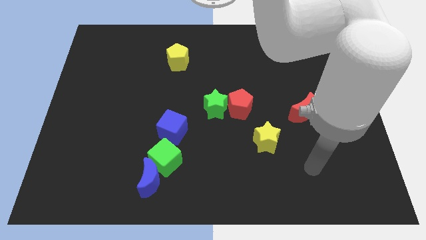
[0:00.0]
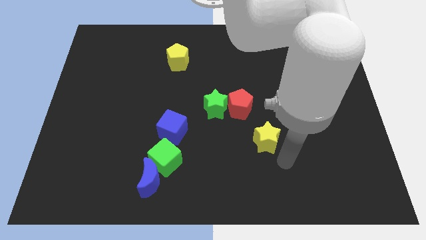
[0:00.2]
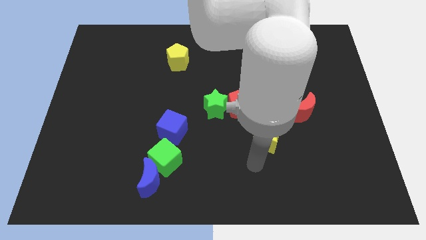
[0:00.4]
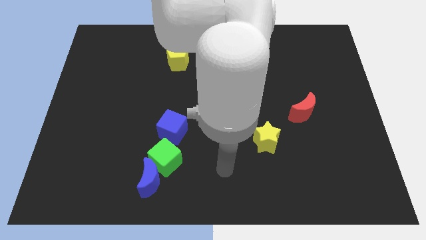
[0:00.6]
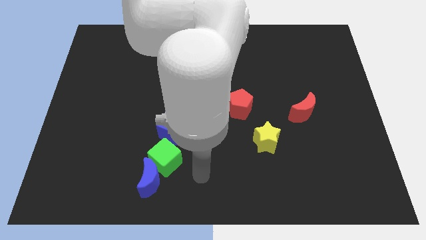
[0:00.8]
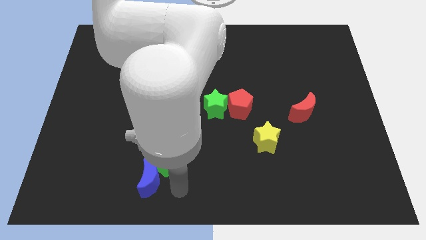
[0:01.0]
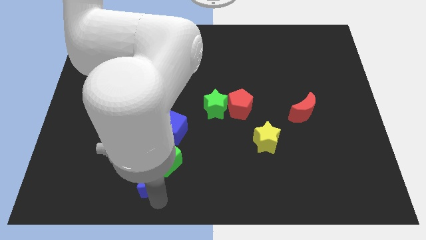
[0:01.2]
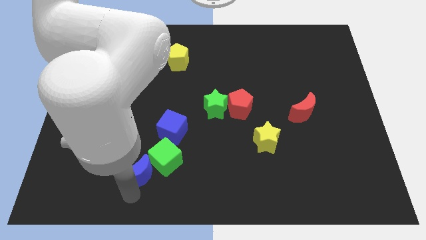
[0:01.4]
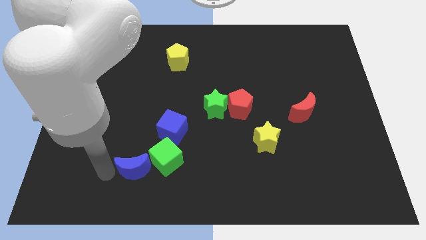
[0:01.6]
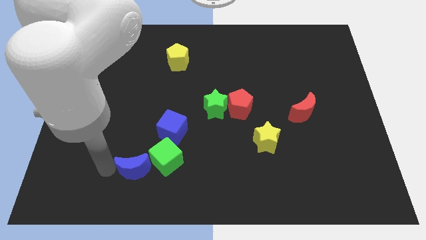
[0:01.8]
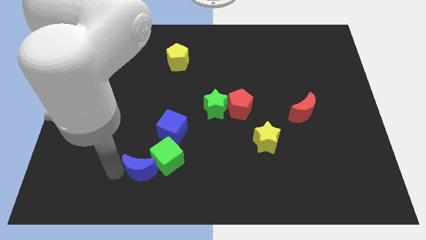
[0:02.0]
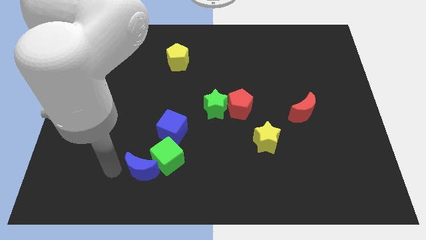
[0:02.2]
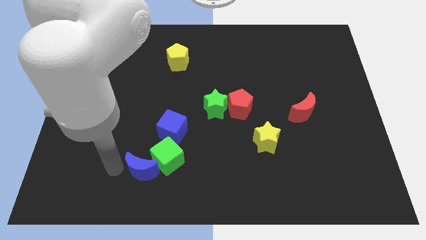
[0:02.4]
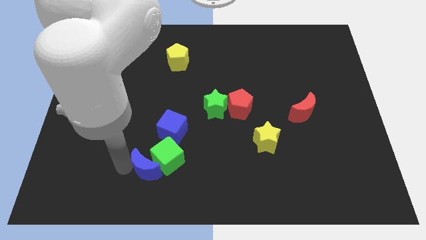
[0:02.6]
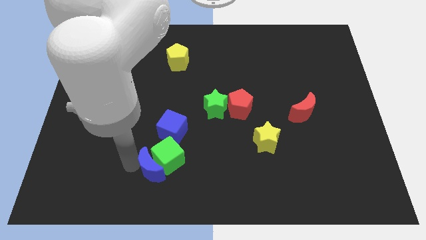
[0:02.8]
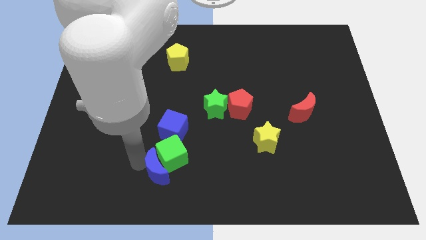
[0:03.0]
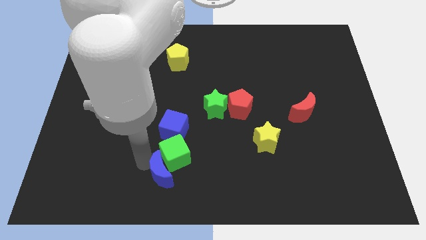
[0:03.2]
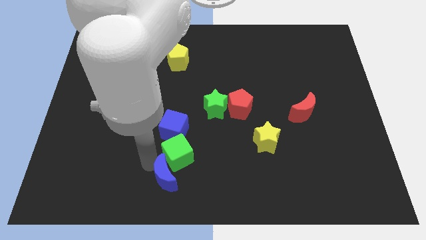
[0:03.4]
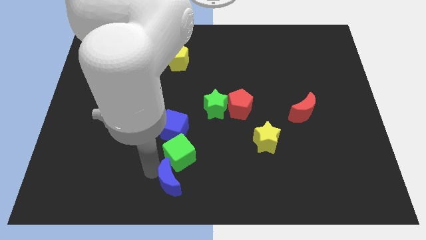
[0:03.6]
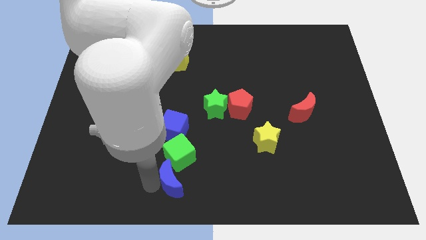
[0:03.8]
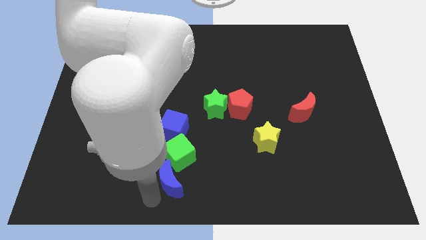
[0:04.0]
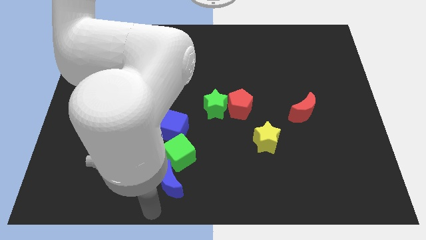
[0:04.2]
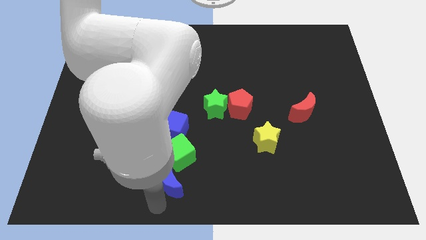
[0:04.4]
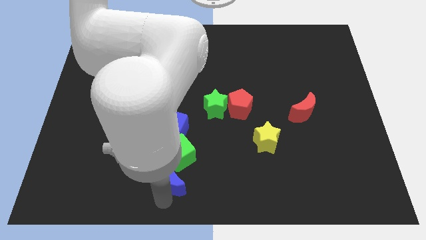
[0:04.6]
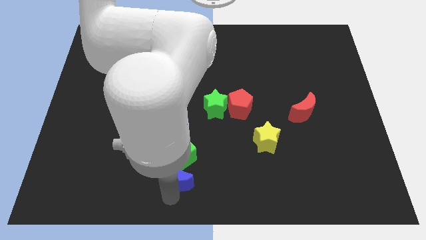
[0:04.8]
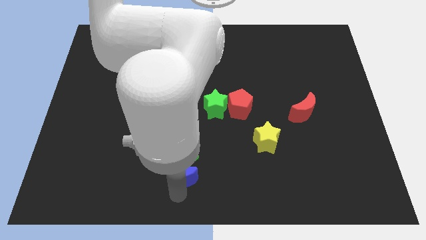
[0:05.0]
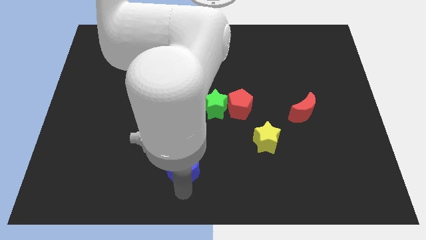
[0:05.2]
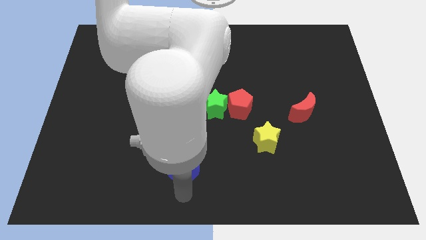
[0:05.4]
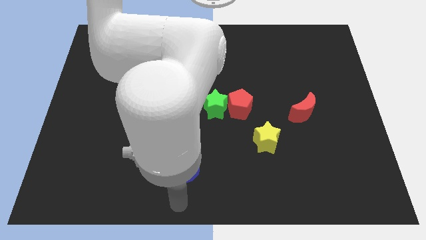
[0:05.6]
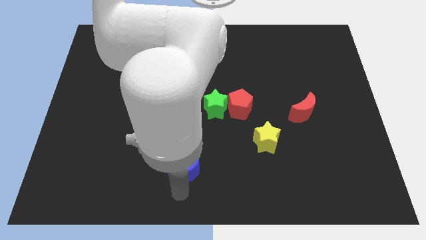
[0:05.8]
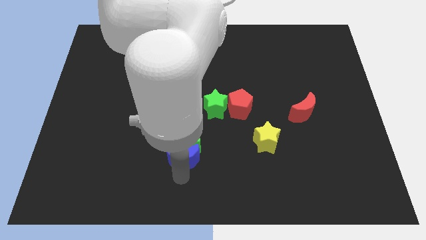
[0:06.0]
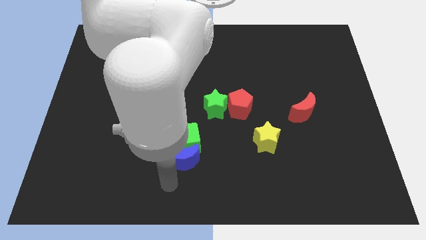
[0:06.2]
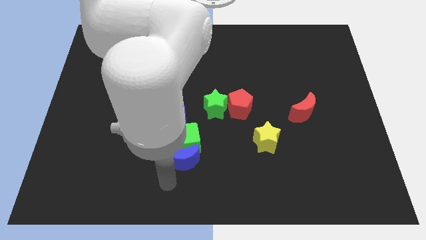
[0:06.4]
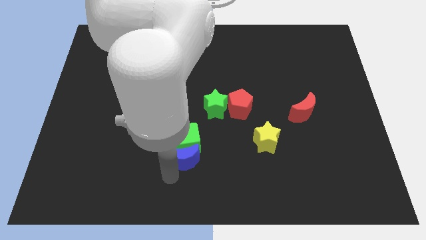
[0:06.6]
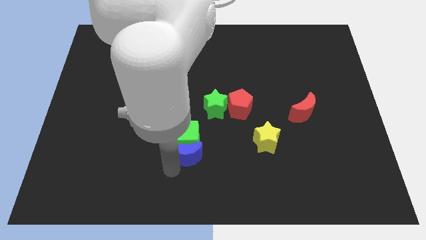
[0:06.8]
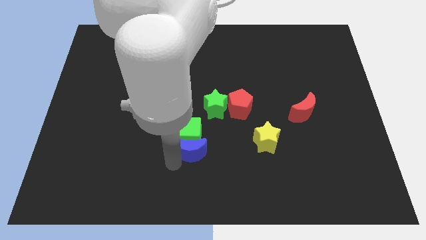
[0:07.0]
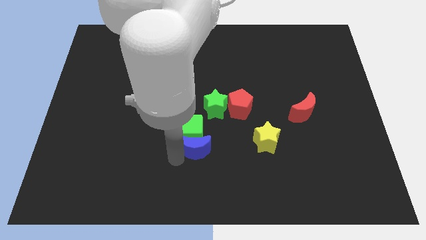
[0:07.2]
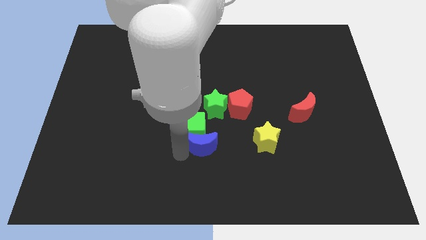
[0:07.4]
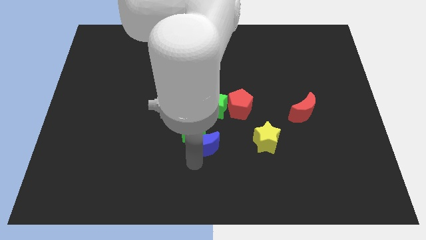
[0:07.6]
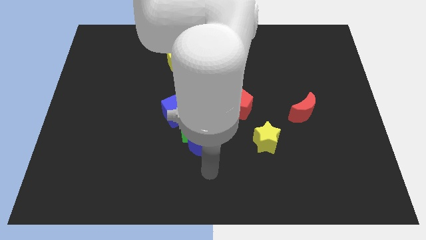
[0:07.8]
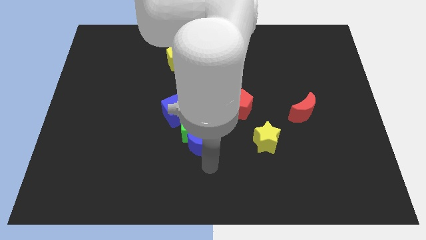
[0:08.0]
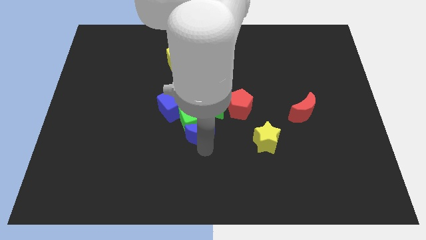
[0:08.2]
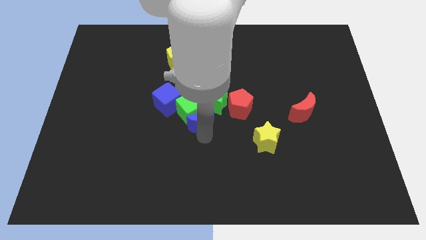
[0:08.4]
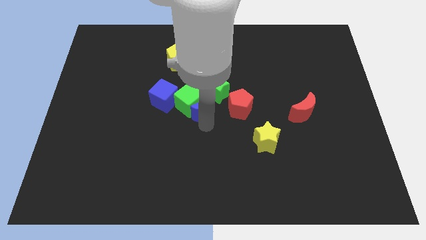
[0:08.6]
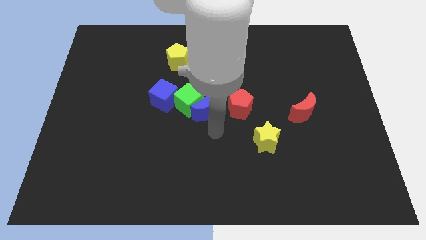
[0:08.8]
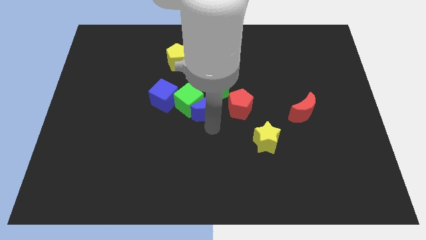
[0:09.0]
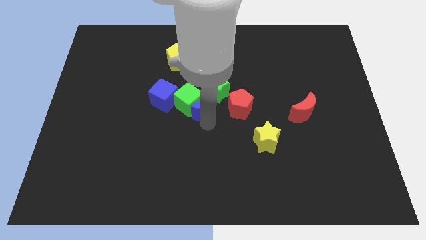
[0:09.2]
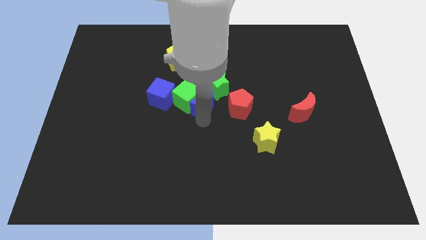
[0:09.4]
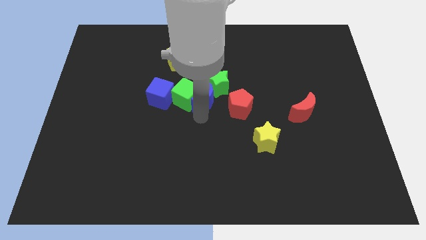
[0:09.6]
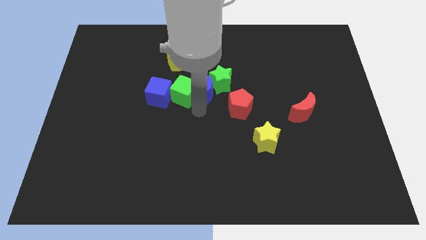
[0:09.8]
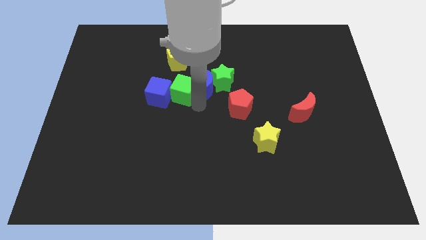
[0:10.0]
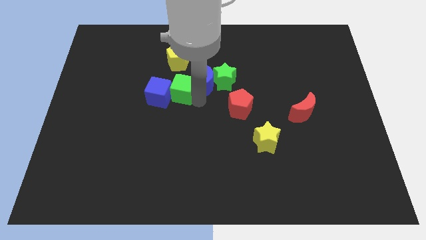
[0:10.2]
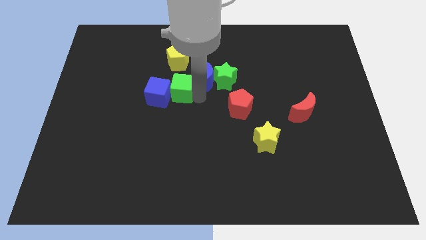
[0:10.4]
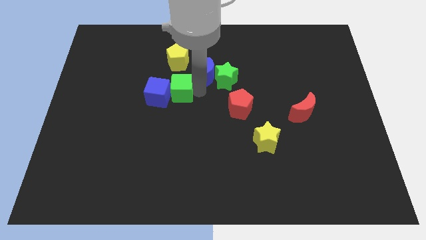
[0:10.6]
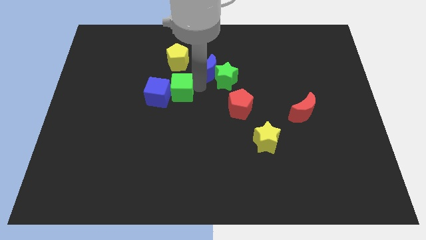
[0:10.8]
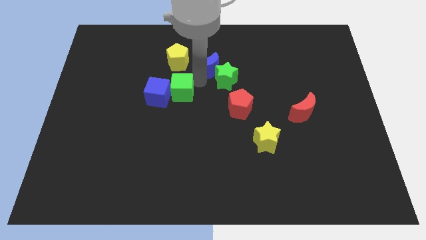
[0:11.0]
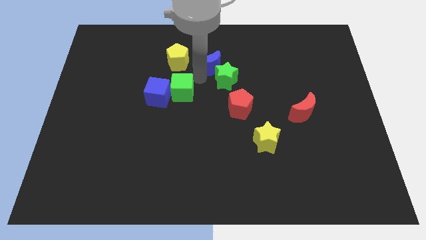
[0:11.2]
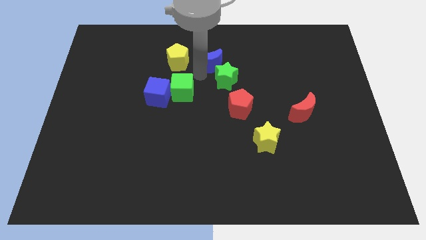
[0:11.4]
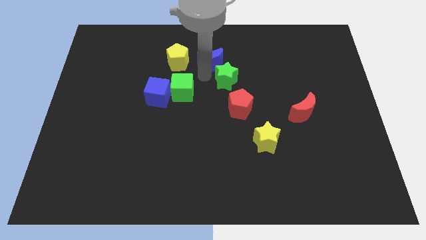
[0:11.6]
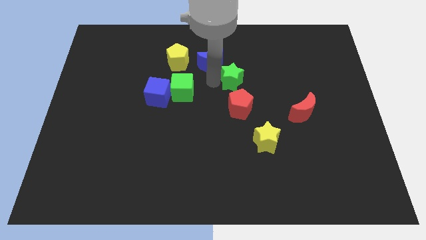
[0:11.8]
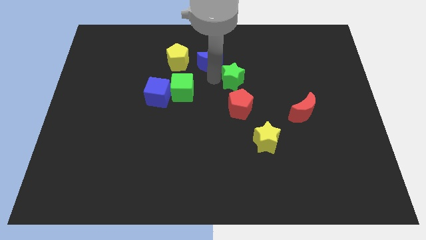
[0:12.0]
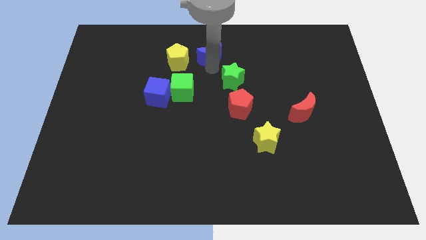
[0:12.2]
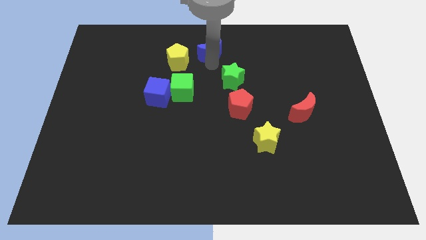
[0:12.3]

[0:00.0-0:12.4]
slide the blue moon to the towards your base

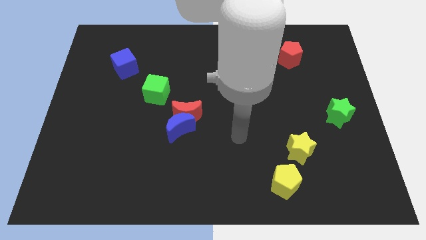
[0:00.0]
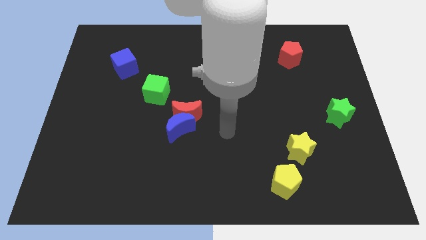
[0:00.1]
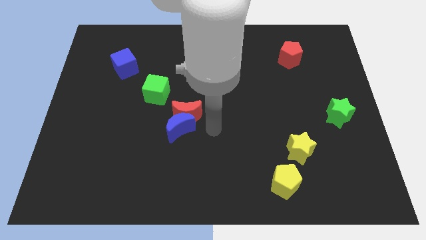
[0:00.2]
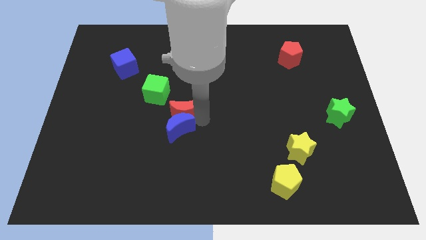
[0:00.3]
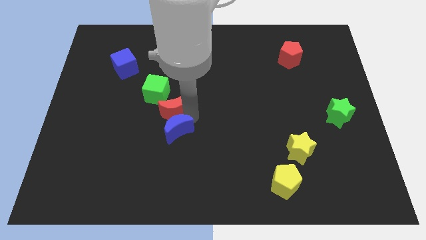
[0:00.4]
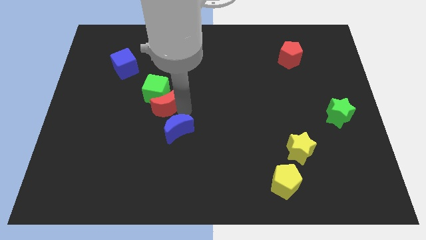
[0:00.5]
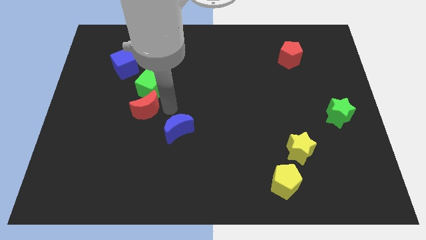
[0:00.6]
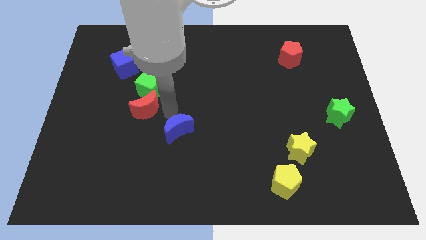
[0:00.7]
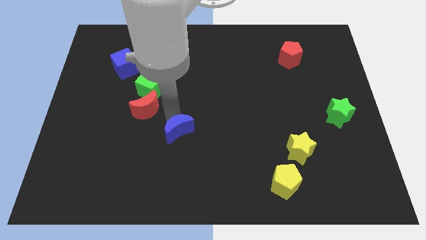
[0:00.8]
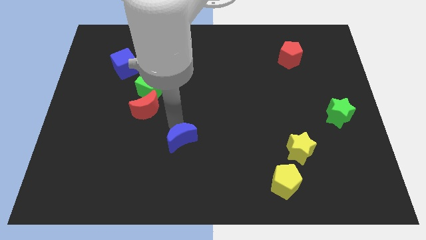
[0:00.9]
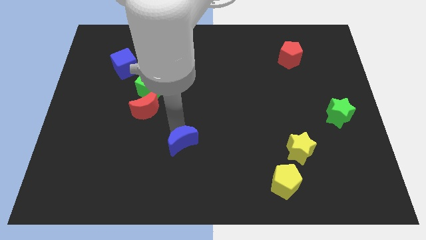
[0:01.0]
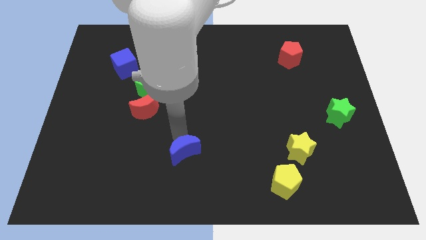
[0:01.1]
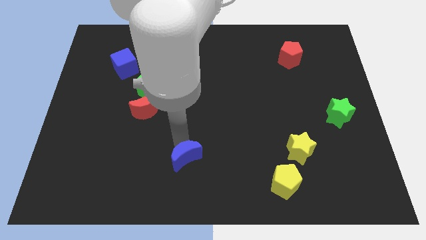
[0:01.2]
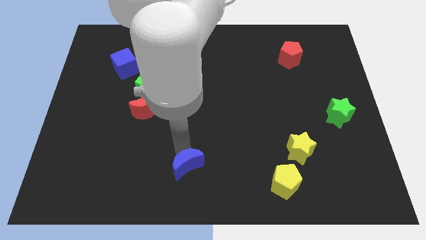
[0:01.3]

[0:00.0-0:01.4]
push the blue moon to the bottom
